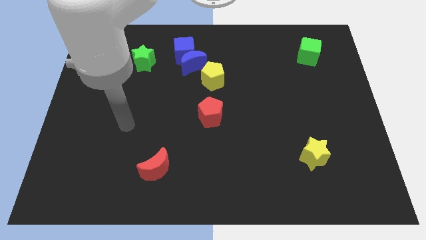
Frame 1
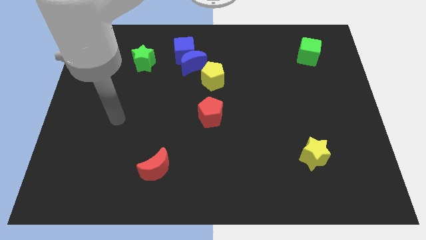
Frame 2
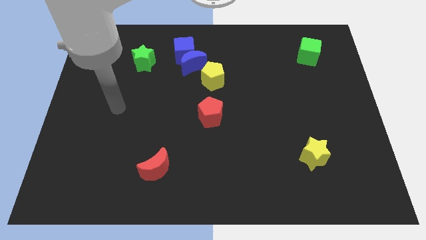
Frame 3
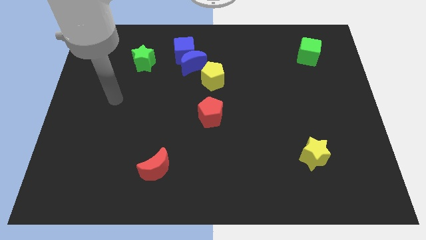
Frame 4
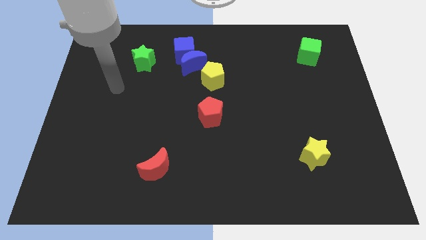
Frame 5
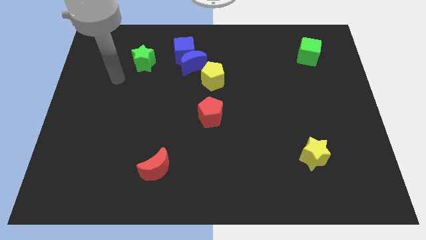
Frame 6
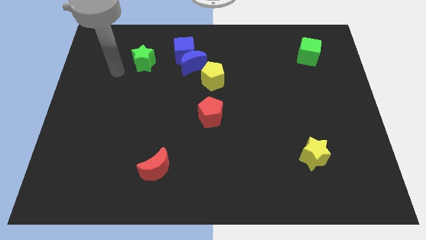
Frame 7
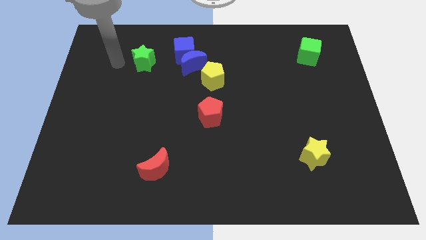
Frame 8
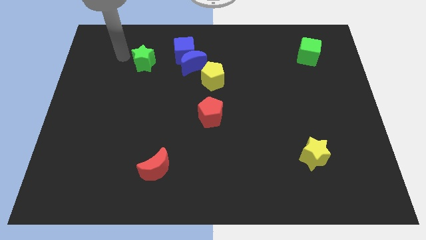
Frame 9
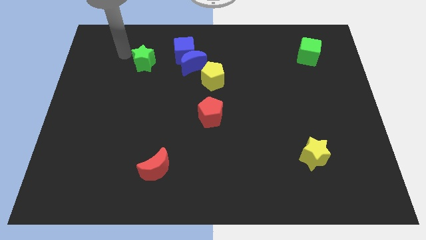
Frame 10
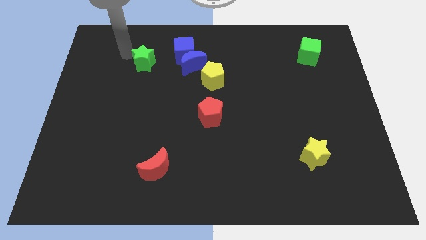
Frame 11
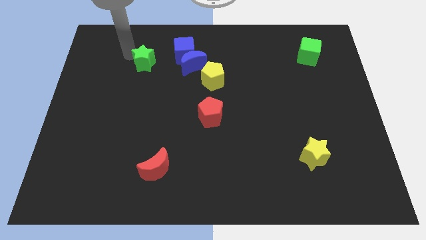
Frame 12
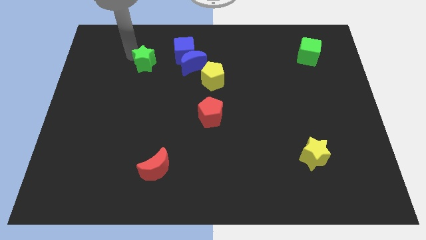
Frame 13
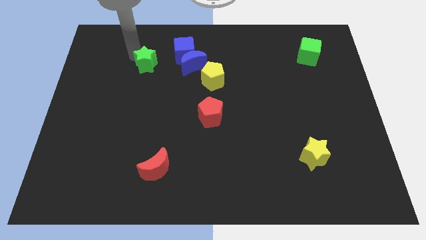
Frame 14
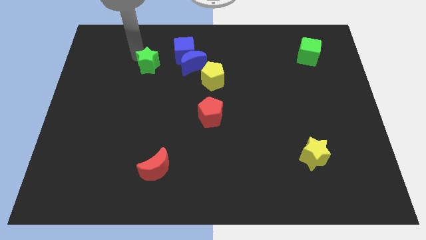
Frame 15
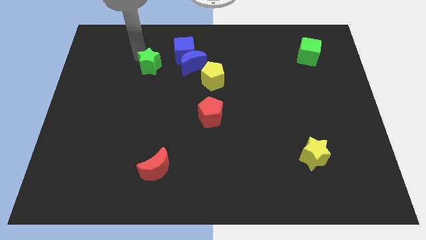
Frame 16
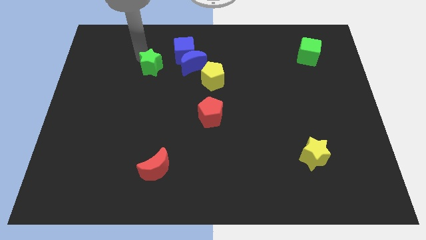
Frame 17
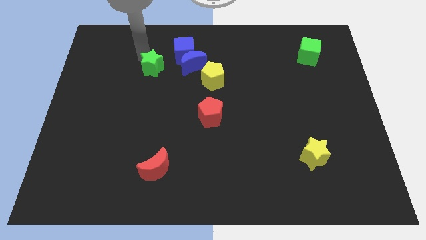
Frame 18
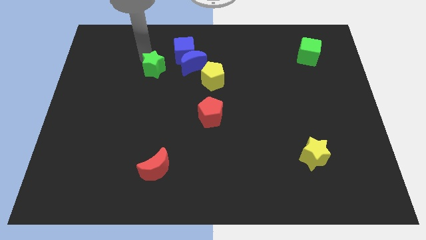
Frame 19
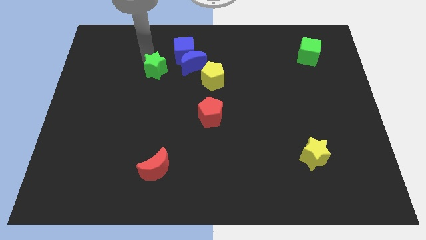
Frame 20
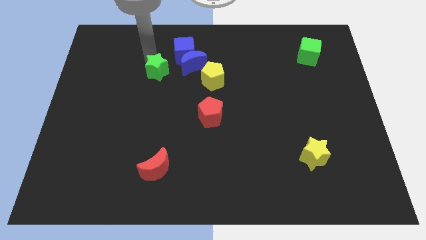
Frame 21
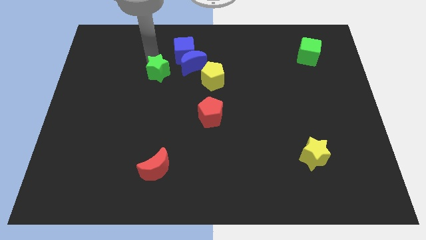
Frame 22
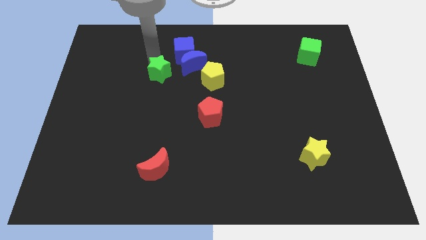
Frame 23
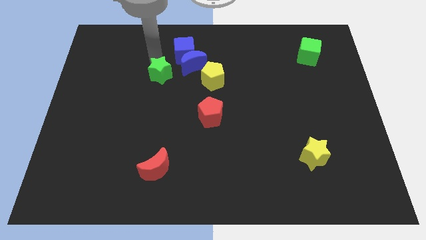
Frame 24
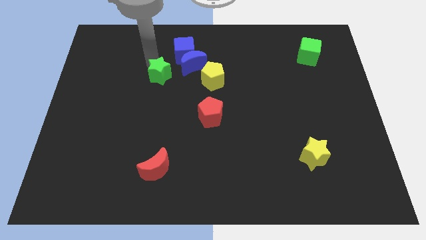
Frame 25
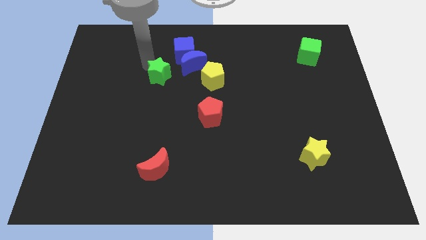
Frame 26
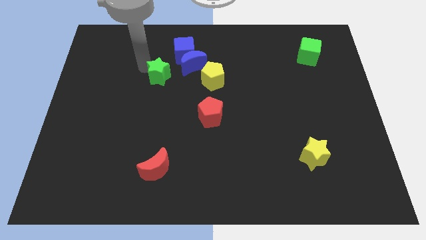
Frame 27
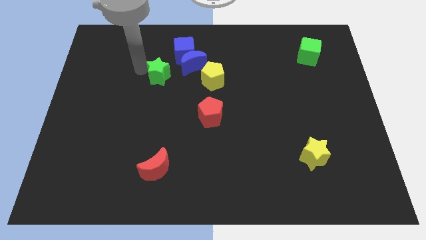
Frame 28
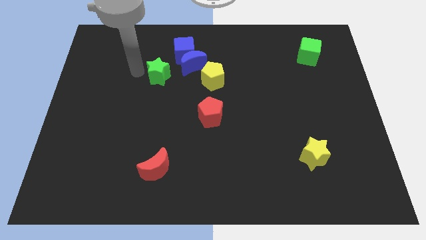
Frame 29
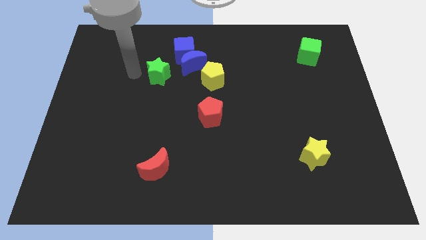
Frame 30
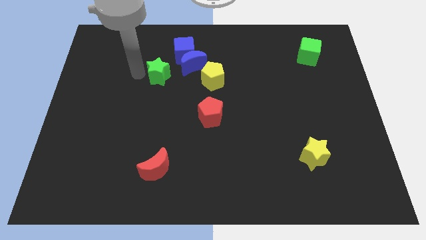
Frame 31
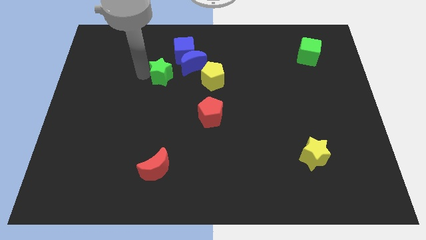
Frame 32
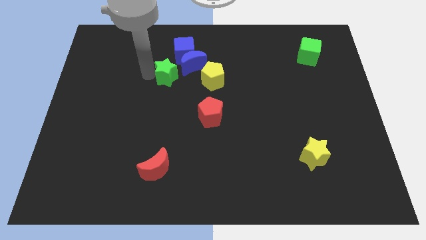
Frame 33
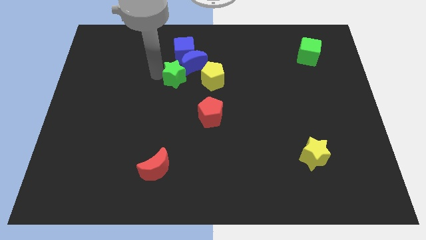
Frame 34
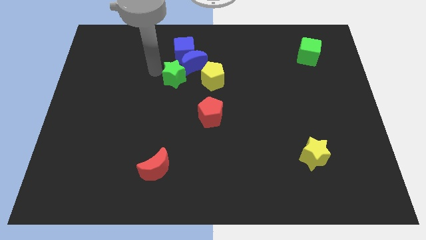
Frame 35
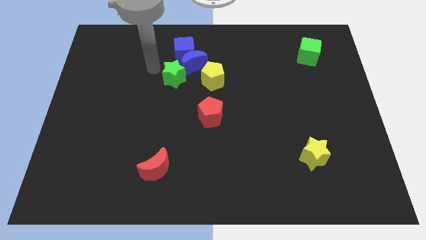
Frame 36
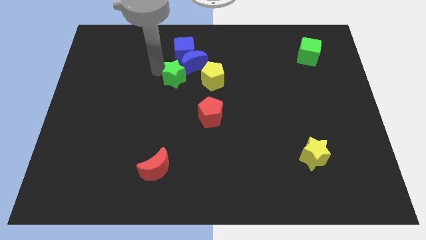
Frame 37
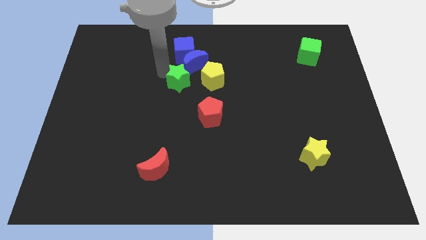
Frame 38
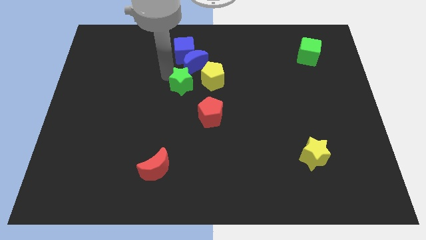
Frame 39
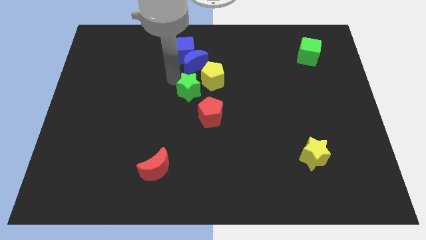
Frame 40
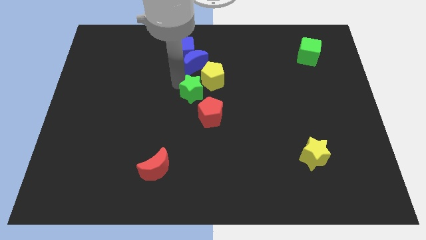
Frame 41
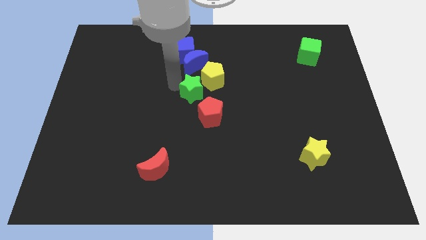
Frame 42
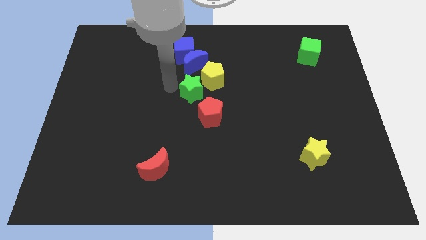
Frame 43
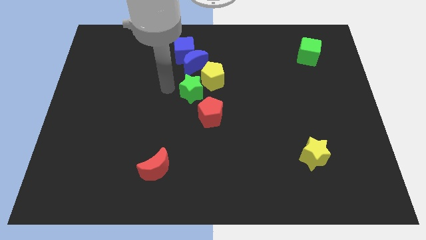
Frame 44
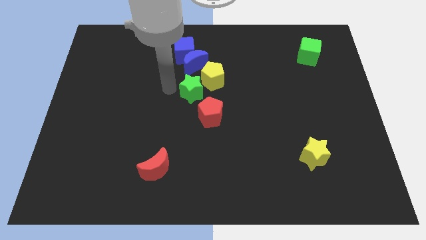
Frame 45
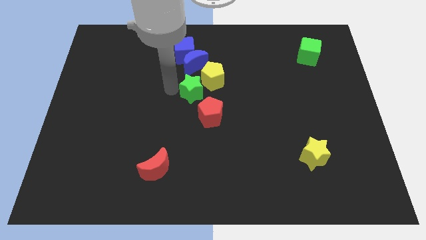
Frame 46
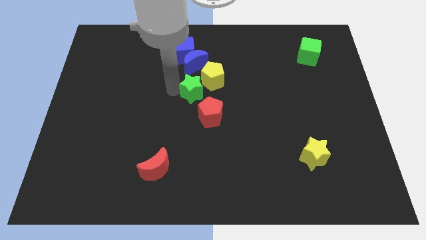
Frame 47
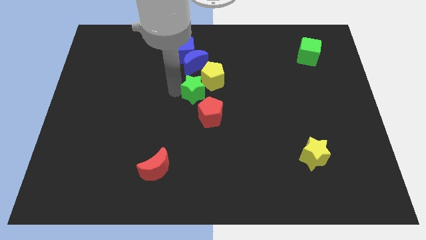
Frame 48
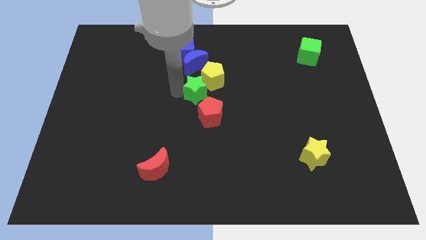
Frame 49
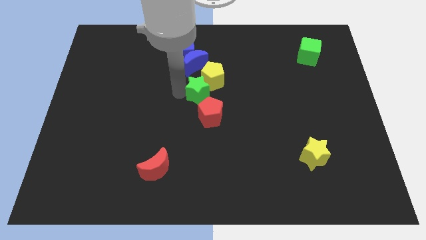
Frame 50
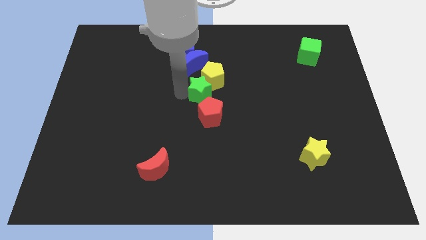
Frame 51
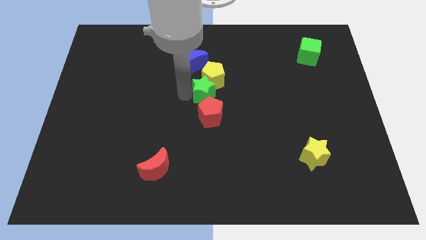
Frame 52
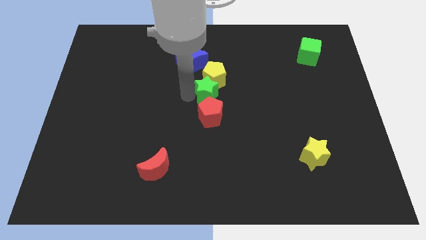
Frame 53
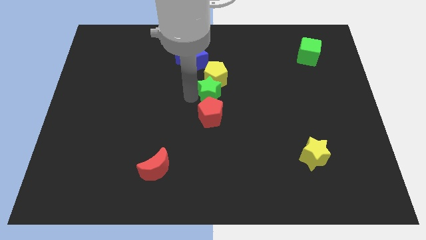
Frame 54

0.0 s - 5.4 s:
push the green star to the top right of the red pentagon

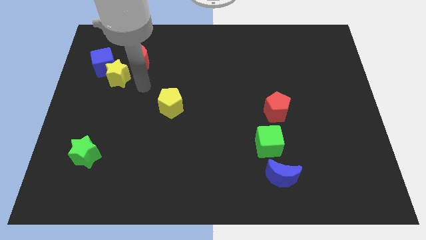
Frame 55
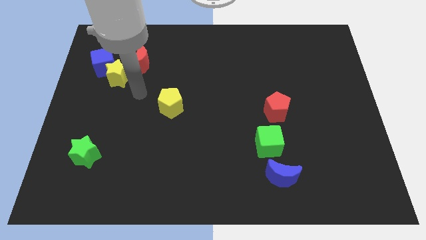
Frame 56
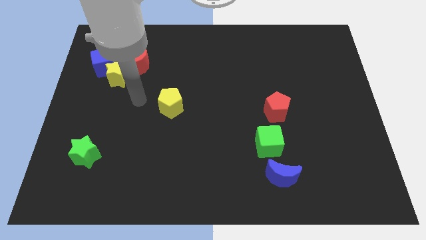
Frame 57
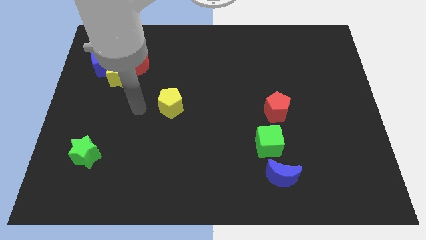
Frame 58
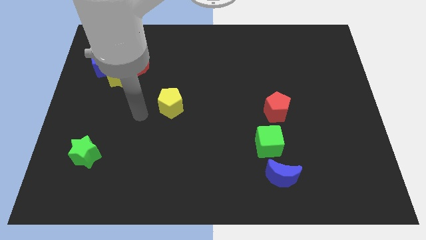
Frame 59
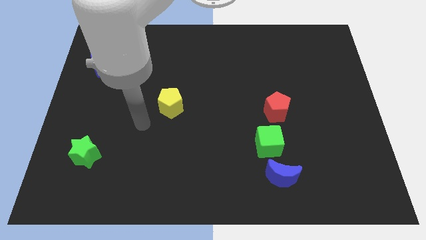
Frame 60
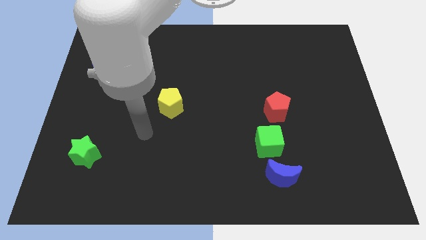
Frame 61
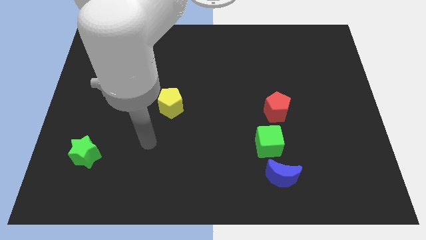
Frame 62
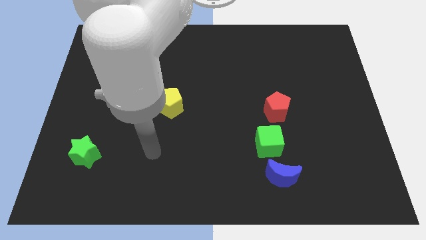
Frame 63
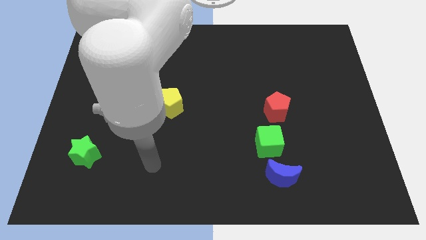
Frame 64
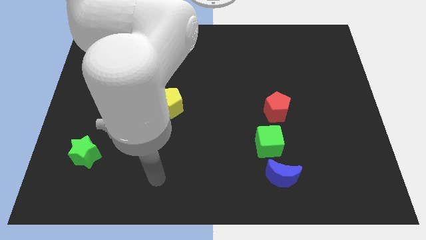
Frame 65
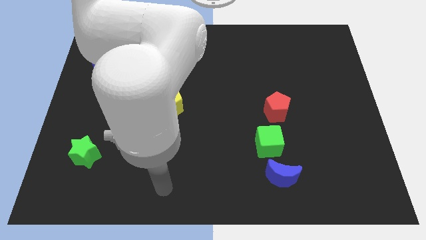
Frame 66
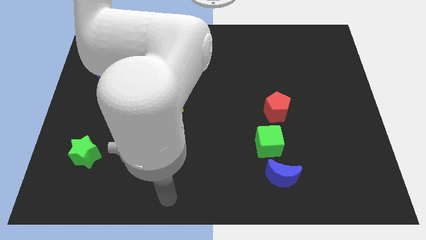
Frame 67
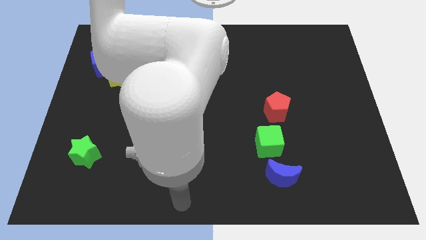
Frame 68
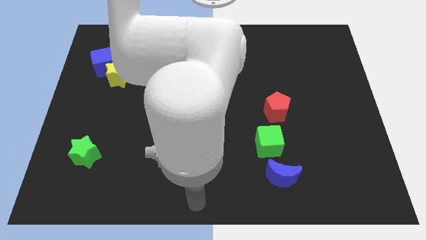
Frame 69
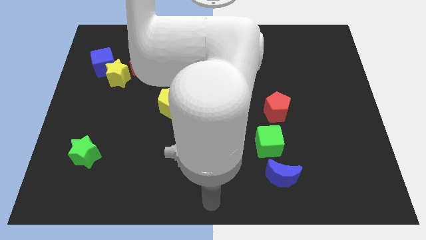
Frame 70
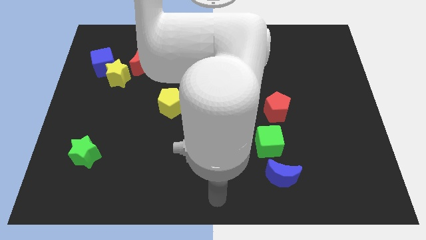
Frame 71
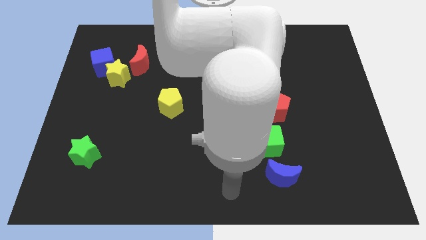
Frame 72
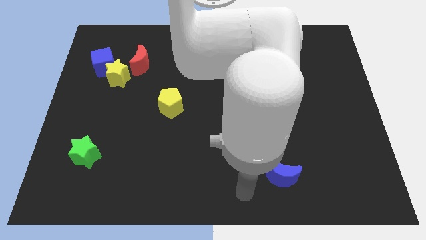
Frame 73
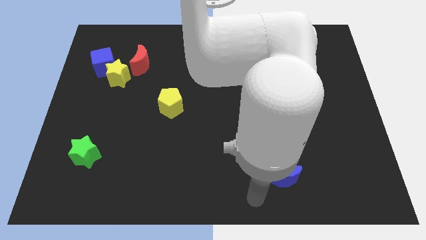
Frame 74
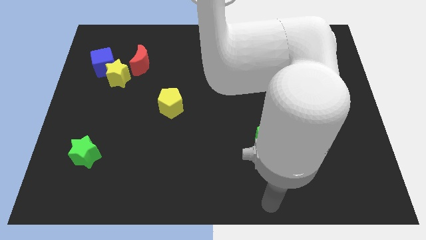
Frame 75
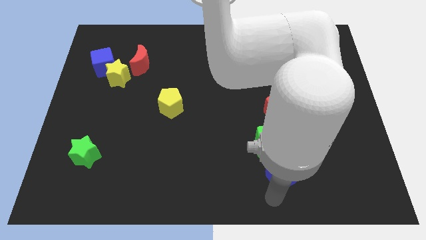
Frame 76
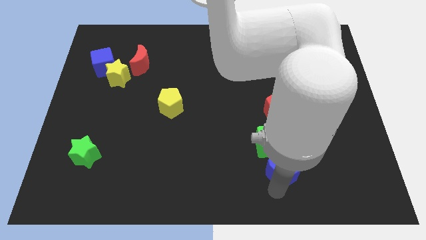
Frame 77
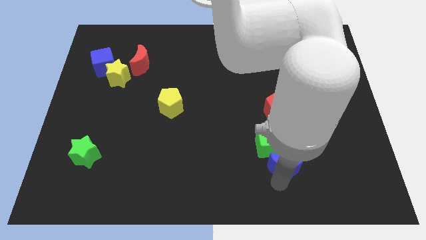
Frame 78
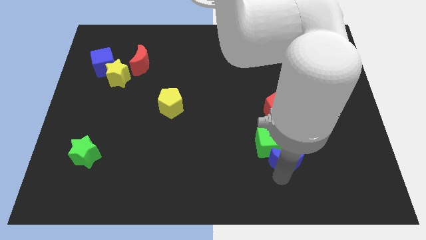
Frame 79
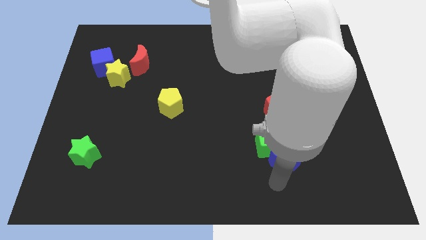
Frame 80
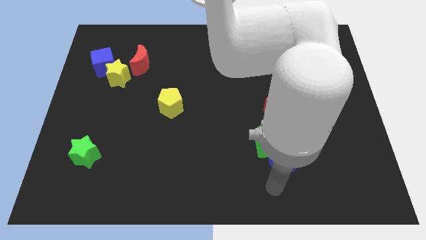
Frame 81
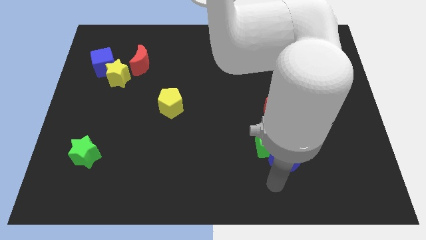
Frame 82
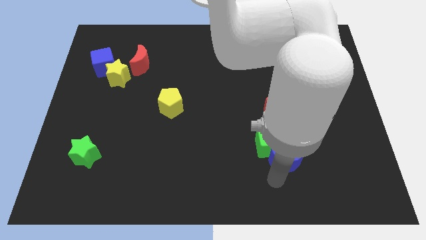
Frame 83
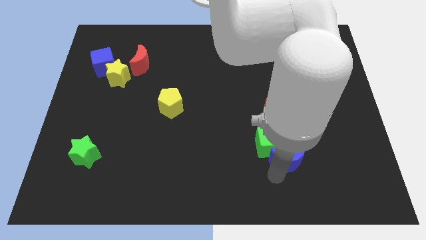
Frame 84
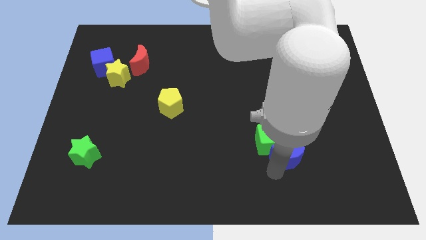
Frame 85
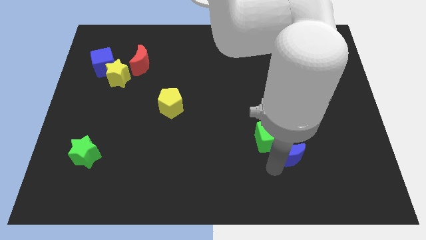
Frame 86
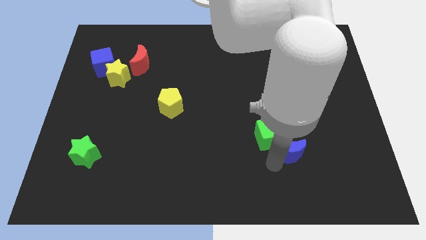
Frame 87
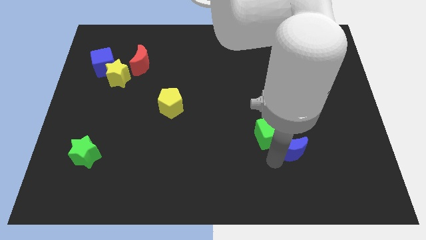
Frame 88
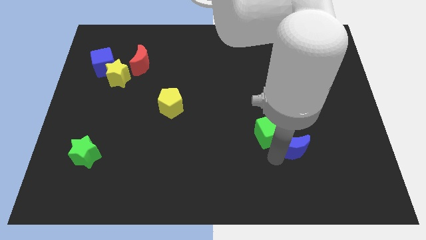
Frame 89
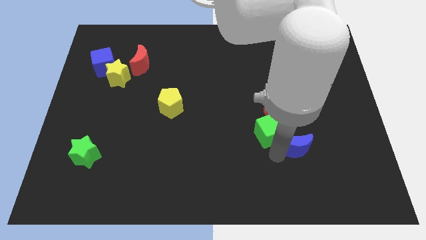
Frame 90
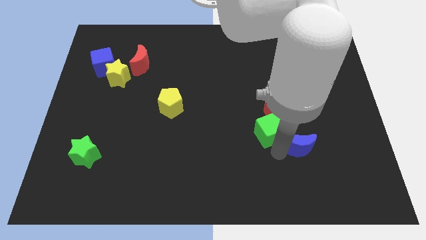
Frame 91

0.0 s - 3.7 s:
push the blue moon to the bottom right side of the red pentagon
